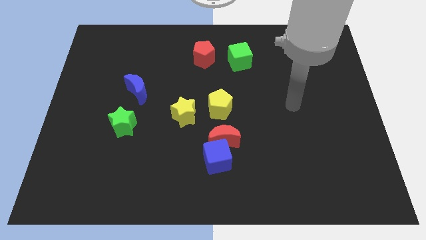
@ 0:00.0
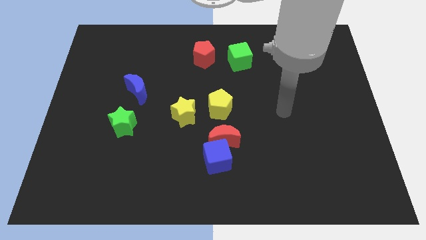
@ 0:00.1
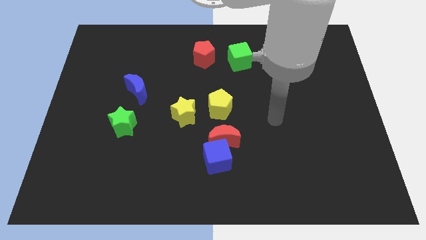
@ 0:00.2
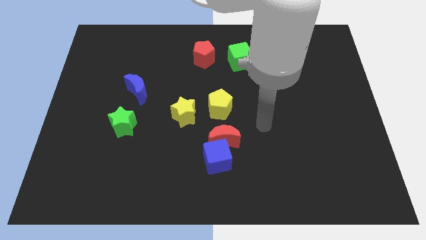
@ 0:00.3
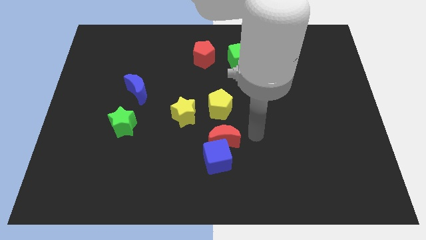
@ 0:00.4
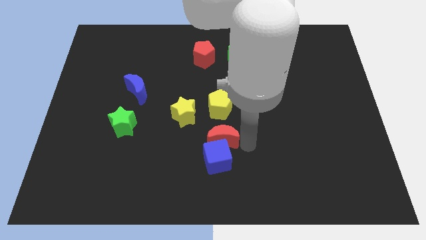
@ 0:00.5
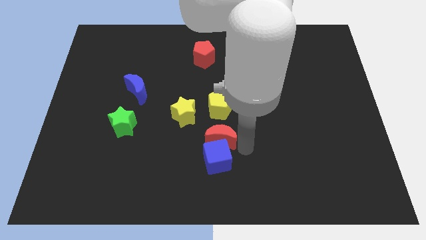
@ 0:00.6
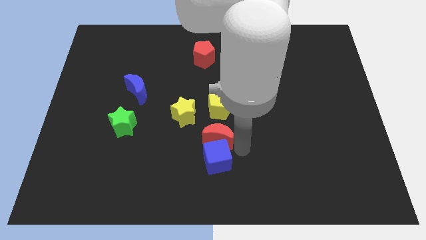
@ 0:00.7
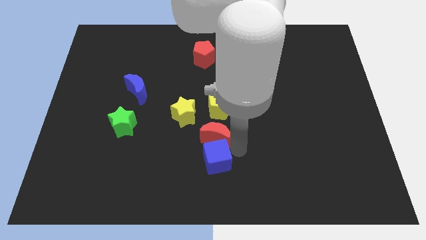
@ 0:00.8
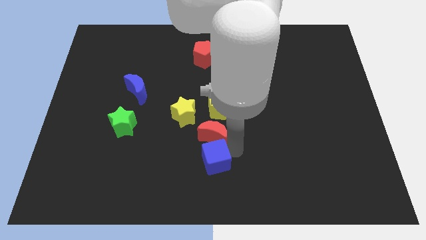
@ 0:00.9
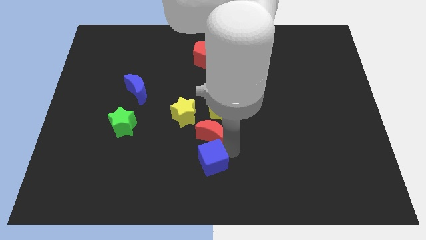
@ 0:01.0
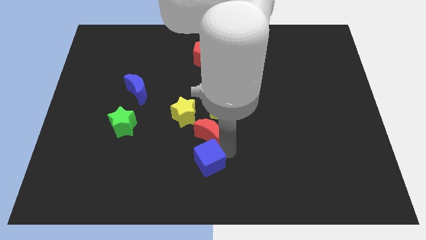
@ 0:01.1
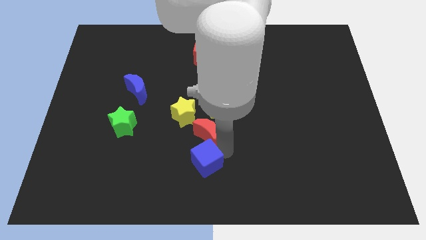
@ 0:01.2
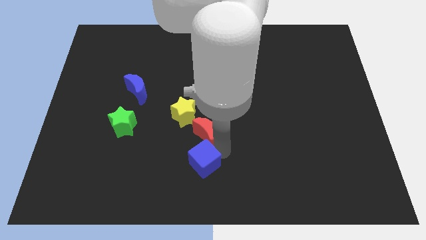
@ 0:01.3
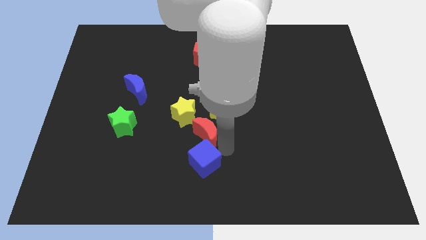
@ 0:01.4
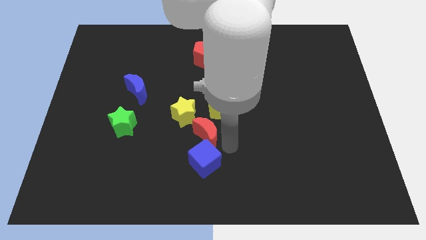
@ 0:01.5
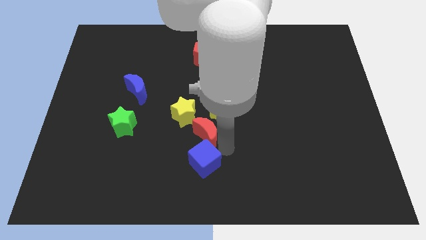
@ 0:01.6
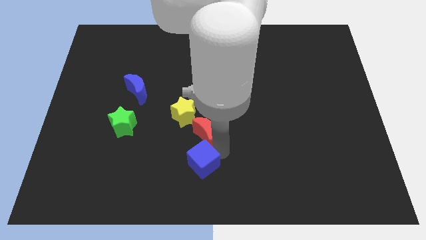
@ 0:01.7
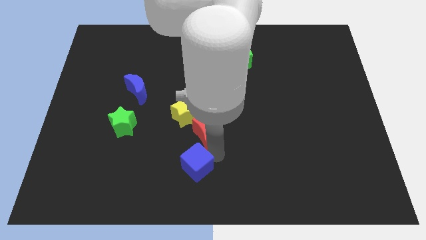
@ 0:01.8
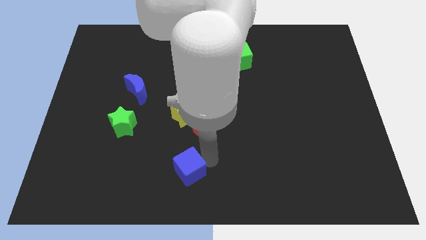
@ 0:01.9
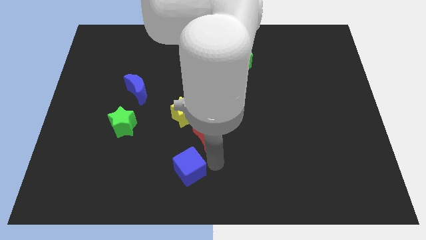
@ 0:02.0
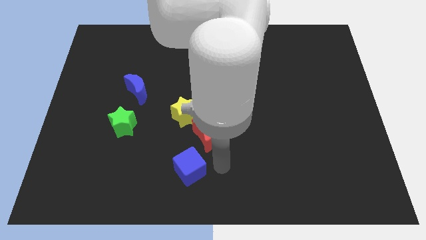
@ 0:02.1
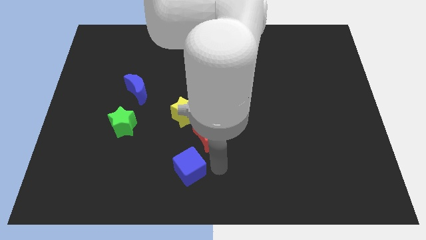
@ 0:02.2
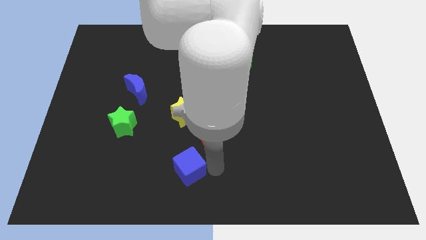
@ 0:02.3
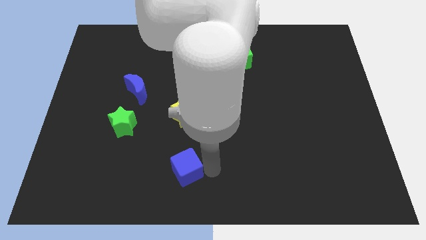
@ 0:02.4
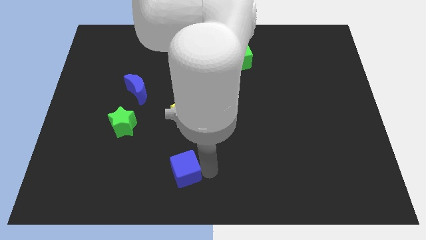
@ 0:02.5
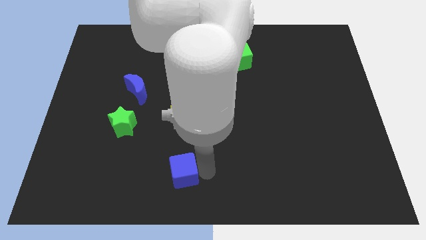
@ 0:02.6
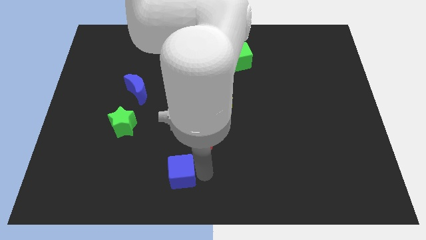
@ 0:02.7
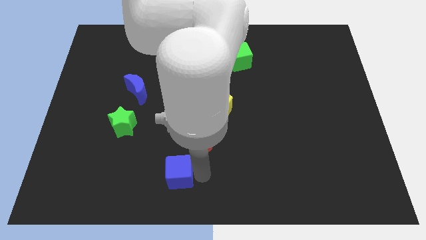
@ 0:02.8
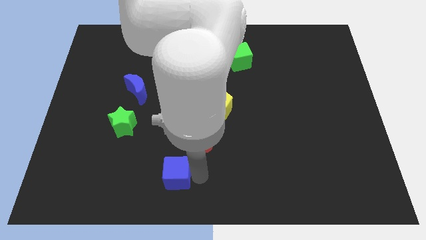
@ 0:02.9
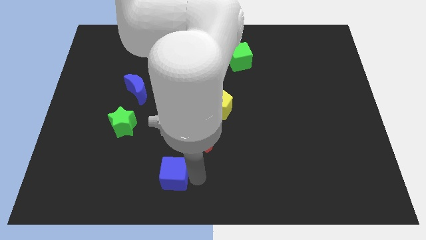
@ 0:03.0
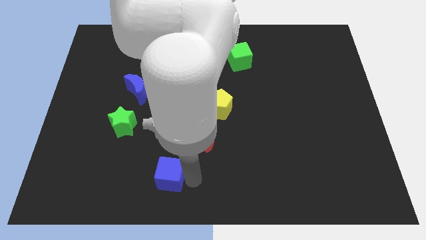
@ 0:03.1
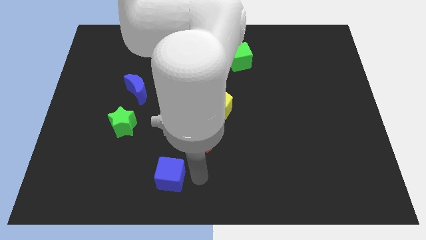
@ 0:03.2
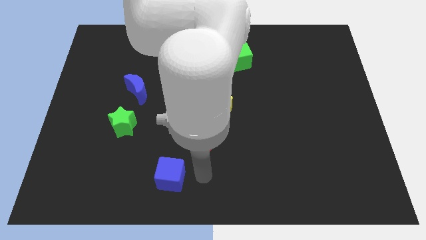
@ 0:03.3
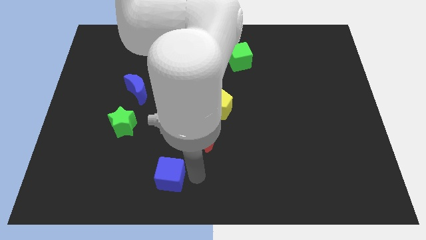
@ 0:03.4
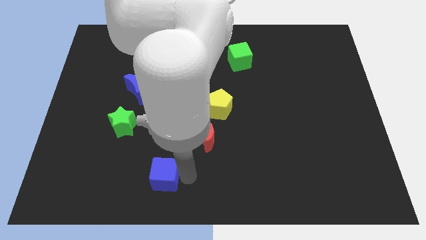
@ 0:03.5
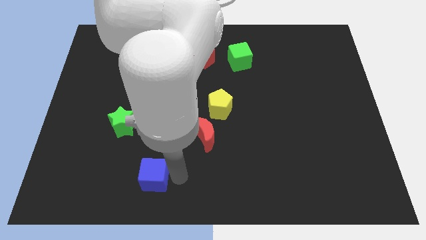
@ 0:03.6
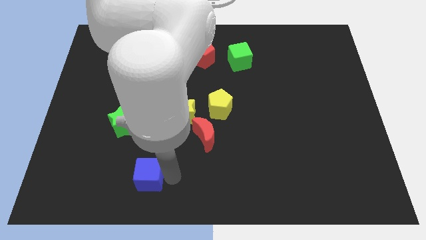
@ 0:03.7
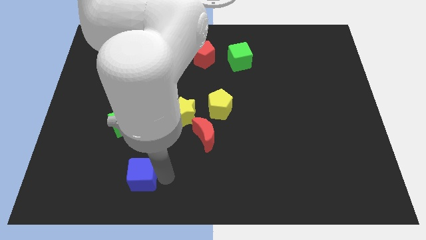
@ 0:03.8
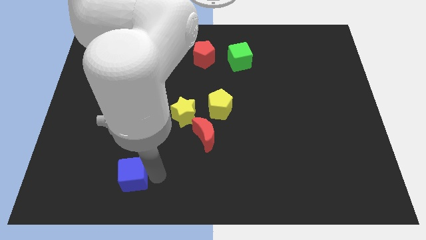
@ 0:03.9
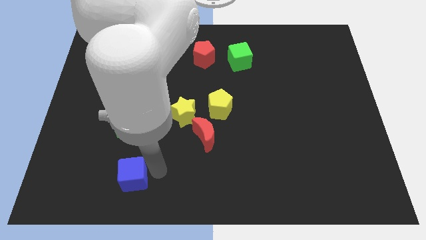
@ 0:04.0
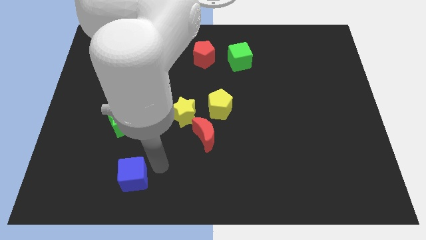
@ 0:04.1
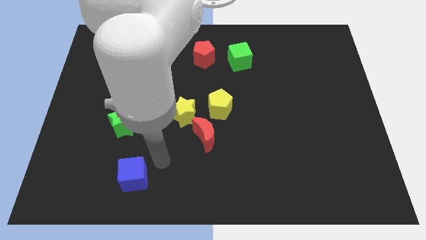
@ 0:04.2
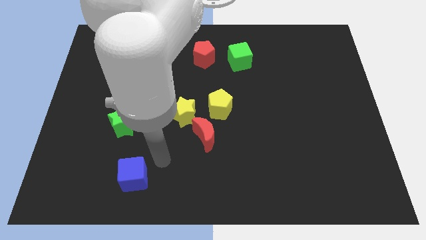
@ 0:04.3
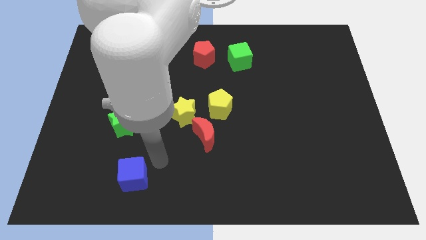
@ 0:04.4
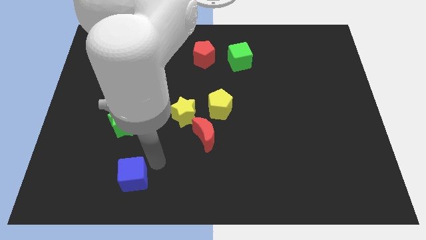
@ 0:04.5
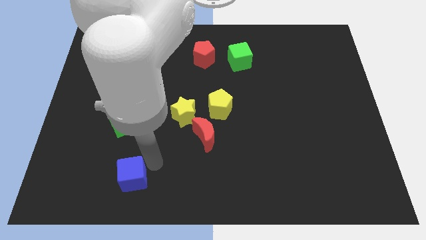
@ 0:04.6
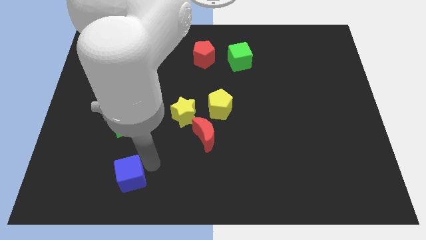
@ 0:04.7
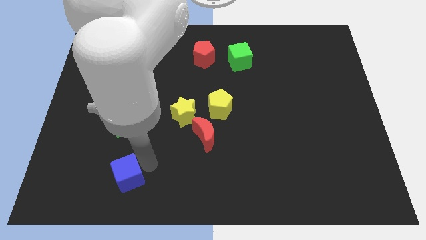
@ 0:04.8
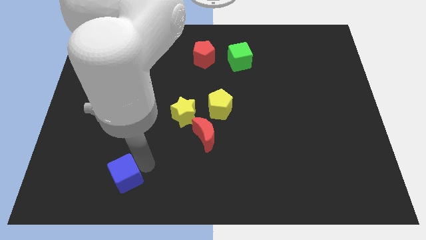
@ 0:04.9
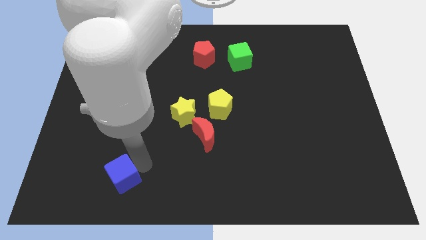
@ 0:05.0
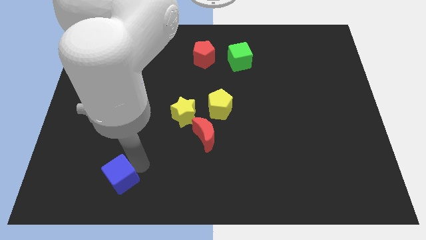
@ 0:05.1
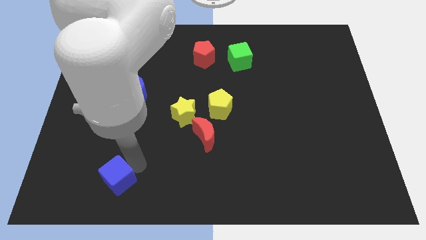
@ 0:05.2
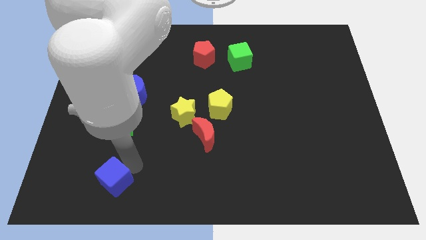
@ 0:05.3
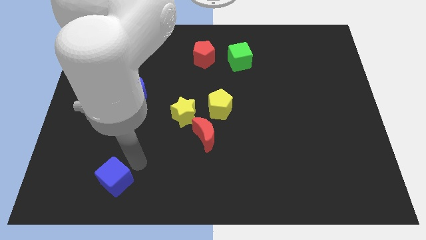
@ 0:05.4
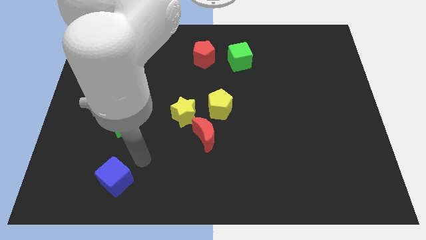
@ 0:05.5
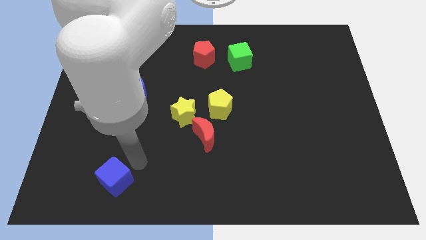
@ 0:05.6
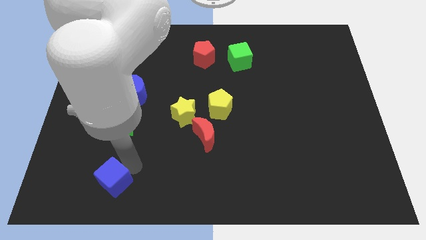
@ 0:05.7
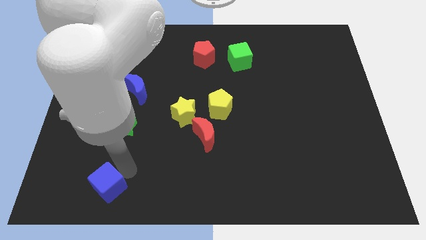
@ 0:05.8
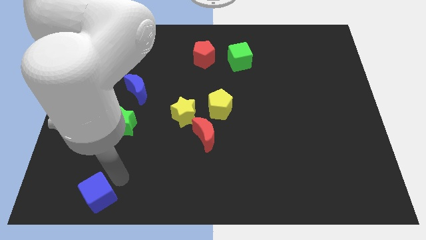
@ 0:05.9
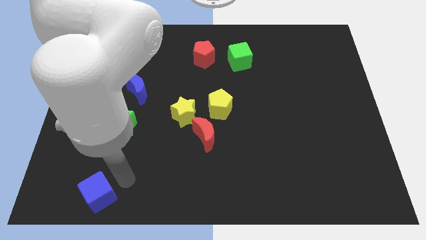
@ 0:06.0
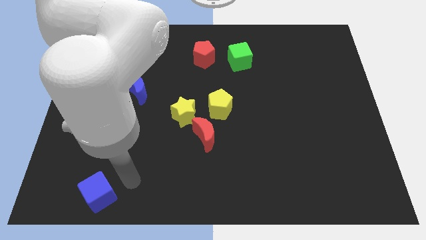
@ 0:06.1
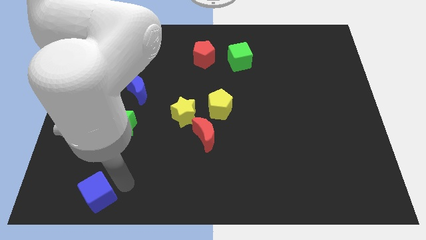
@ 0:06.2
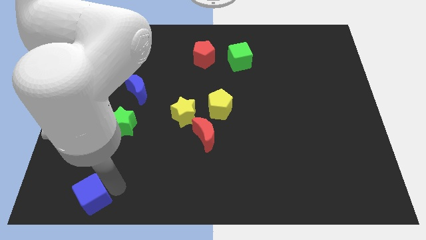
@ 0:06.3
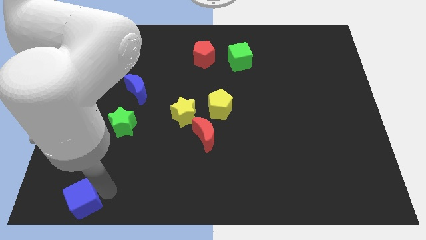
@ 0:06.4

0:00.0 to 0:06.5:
move the blue cube to the bottom left

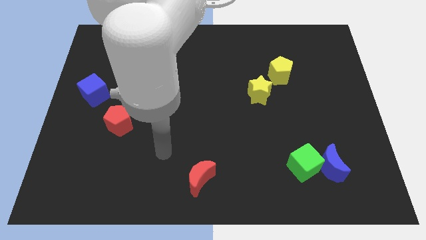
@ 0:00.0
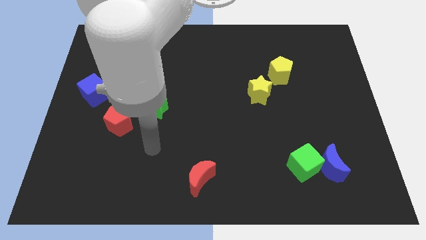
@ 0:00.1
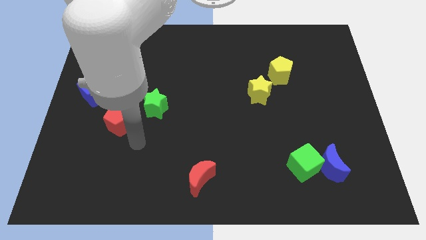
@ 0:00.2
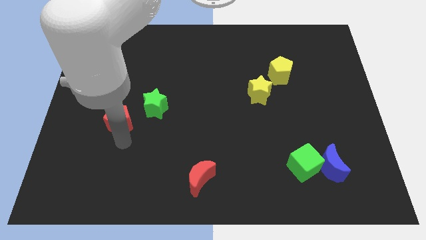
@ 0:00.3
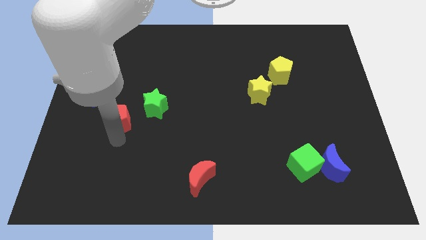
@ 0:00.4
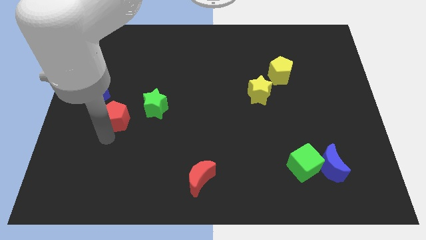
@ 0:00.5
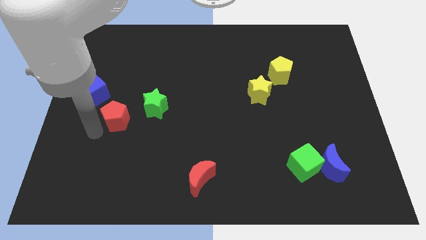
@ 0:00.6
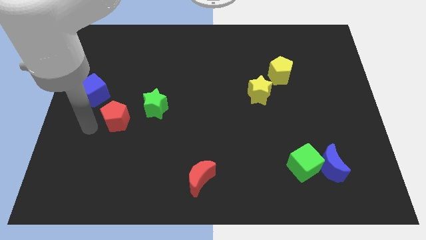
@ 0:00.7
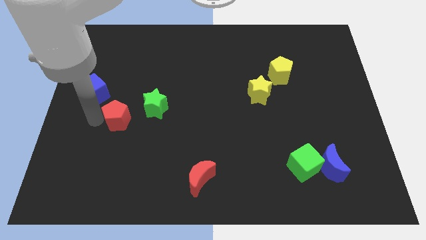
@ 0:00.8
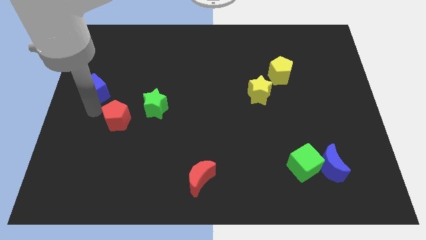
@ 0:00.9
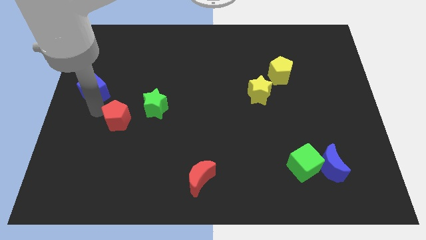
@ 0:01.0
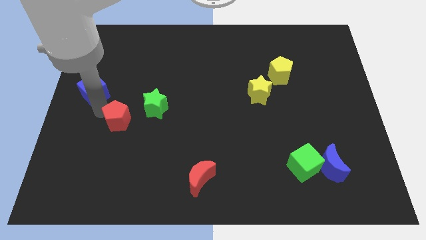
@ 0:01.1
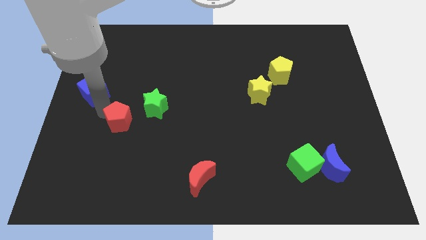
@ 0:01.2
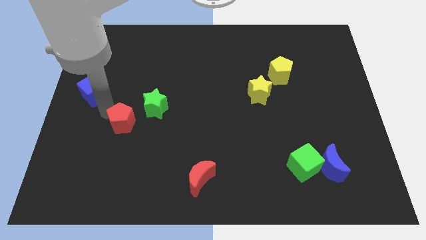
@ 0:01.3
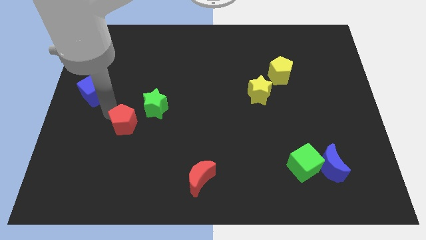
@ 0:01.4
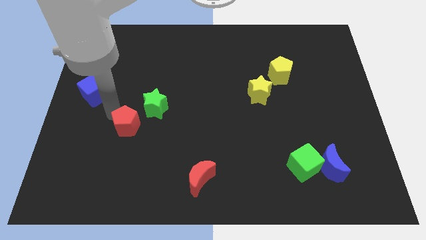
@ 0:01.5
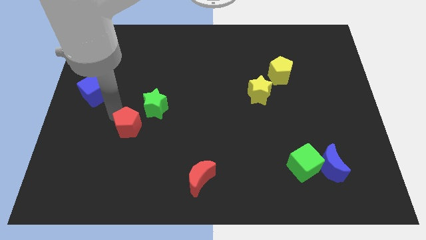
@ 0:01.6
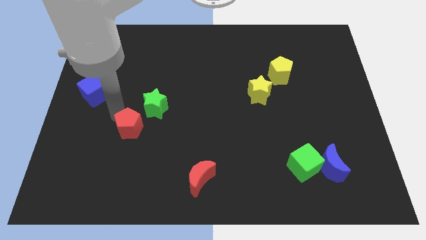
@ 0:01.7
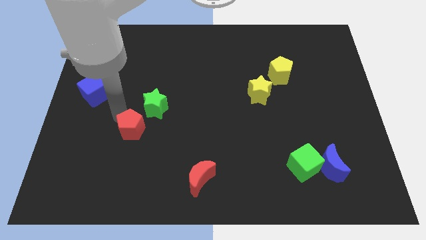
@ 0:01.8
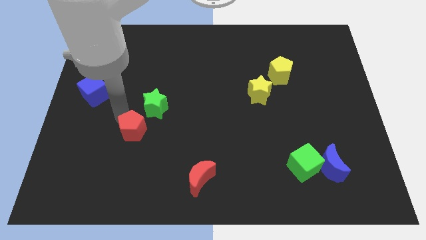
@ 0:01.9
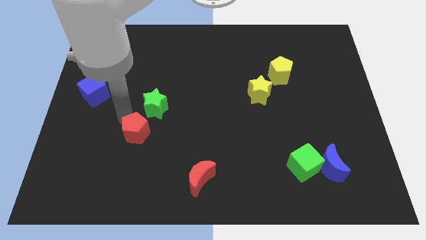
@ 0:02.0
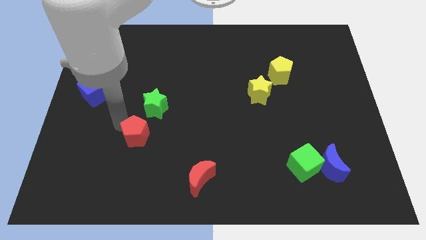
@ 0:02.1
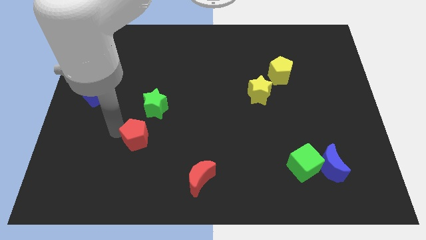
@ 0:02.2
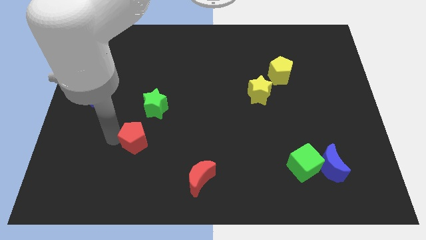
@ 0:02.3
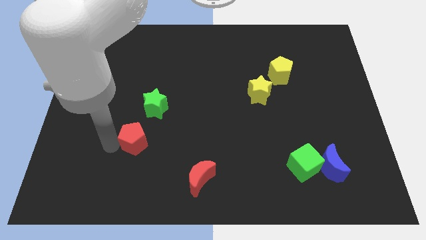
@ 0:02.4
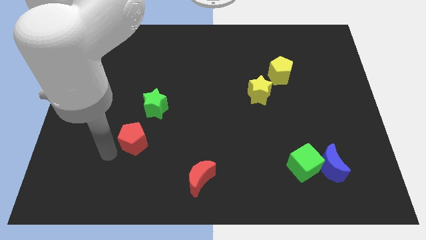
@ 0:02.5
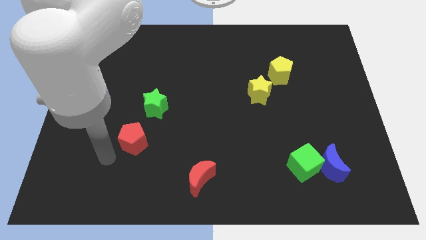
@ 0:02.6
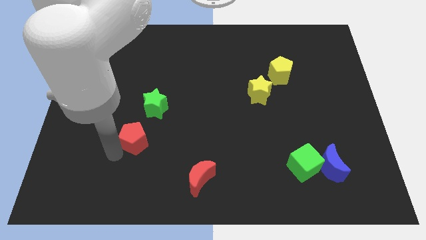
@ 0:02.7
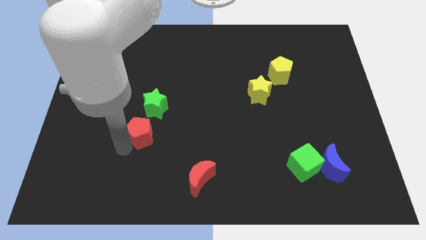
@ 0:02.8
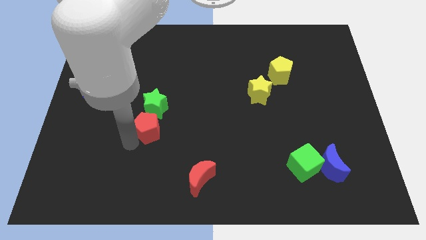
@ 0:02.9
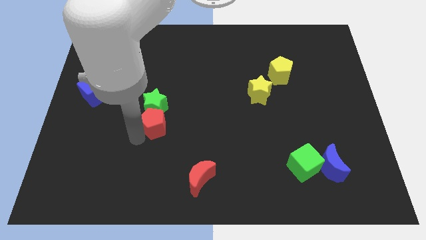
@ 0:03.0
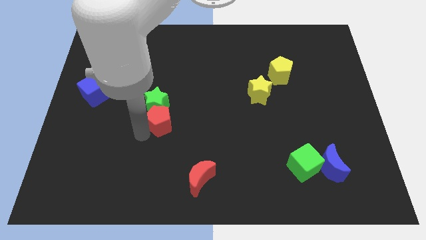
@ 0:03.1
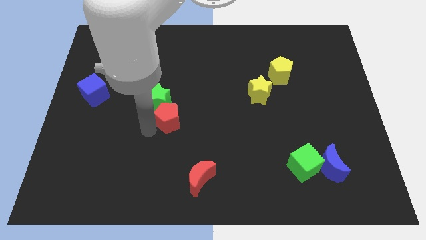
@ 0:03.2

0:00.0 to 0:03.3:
move the red pentagon to the center
